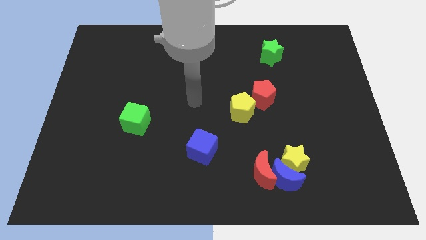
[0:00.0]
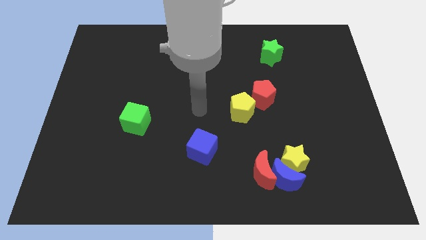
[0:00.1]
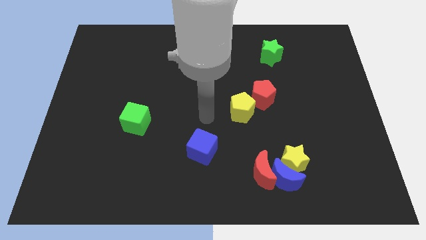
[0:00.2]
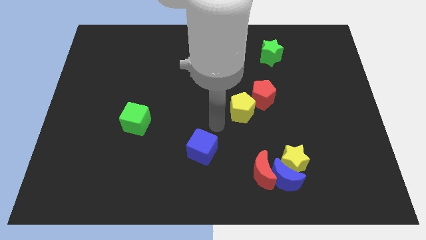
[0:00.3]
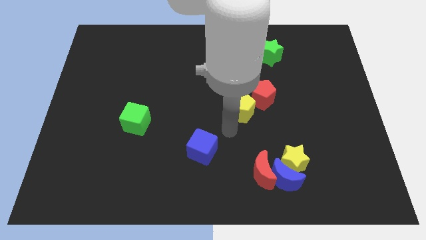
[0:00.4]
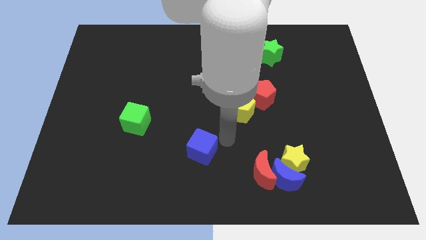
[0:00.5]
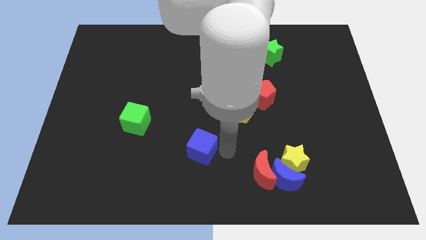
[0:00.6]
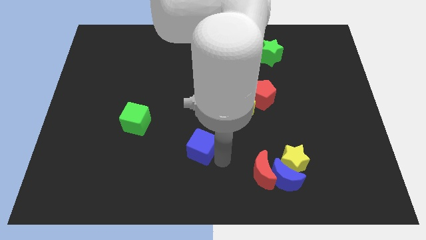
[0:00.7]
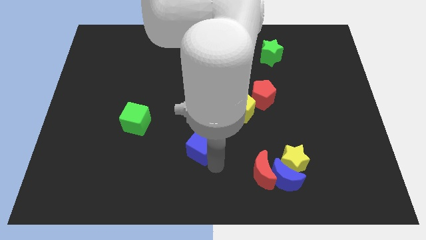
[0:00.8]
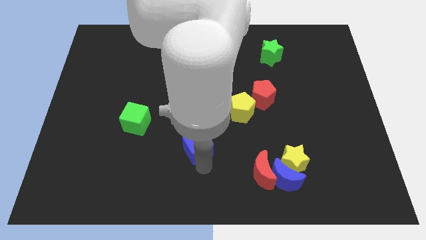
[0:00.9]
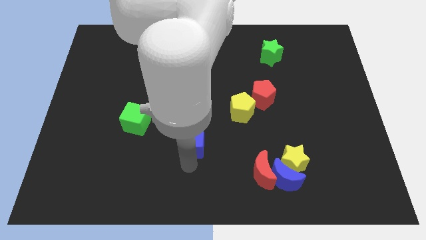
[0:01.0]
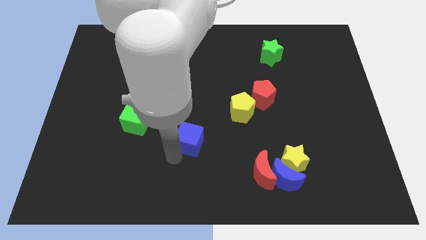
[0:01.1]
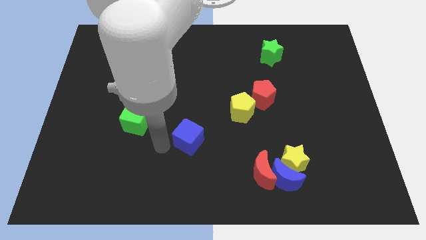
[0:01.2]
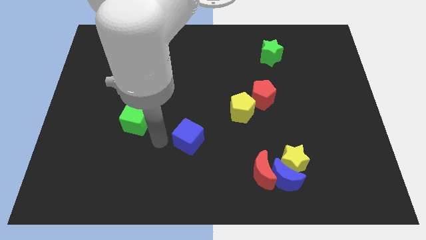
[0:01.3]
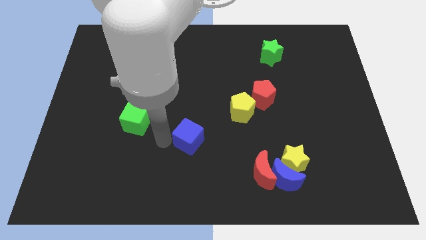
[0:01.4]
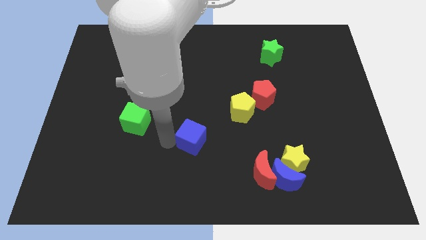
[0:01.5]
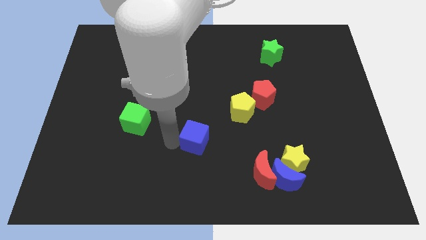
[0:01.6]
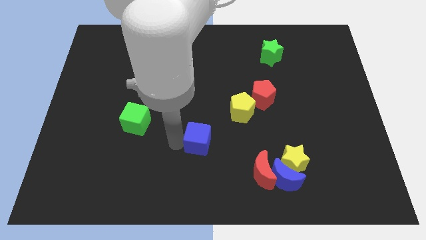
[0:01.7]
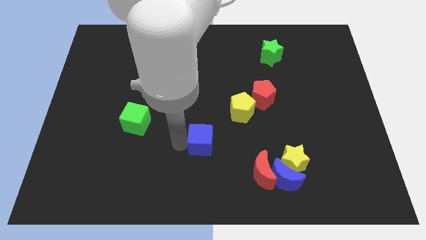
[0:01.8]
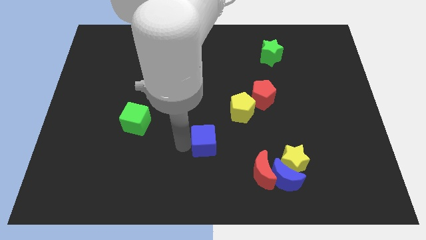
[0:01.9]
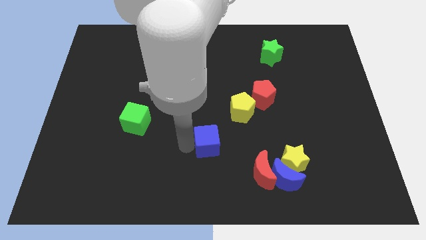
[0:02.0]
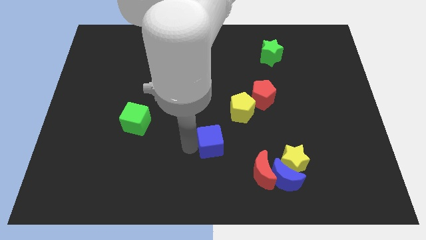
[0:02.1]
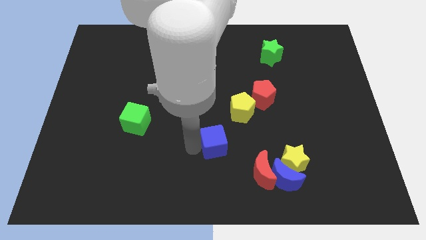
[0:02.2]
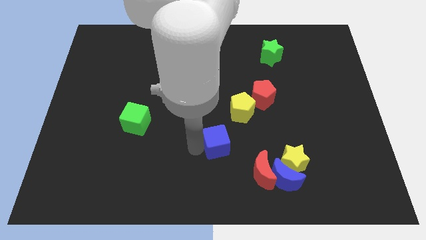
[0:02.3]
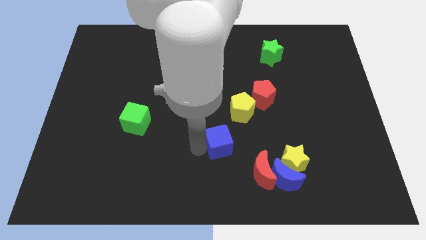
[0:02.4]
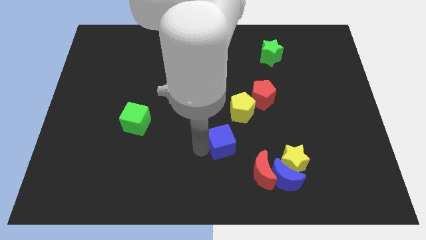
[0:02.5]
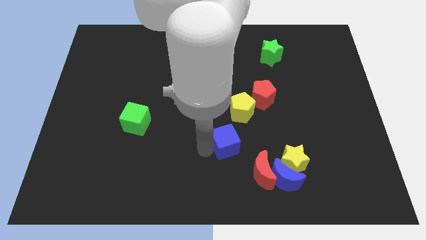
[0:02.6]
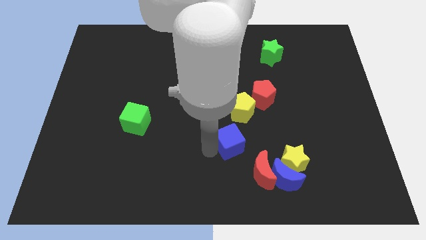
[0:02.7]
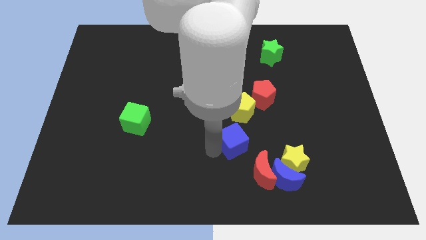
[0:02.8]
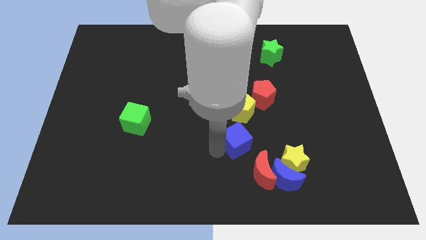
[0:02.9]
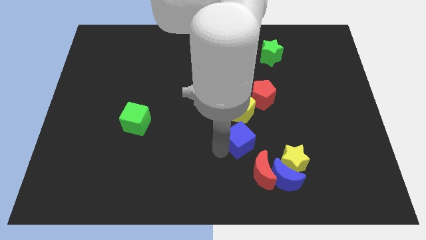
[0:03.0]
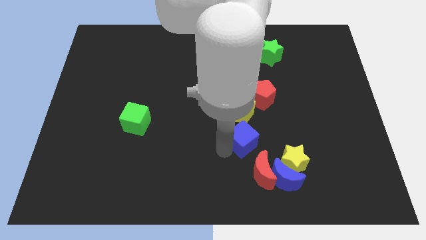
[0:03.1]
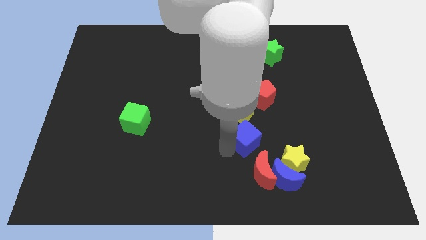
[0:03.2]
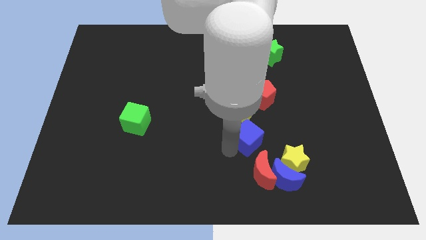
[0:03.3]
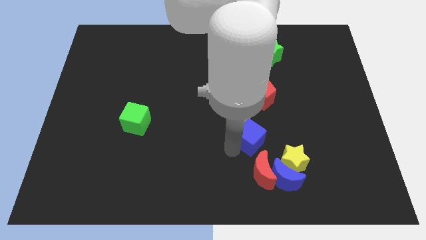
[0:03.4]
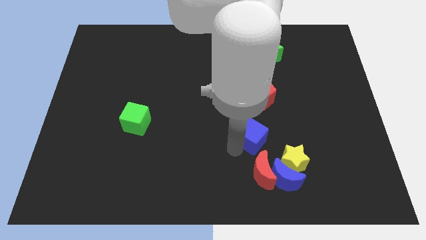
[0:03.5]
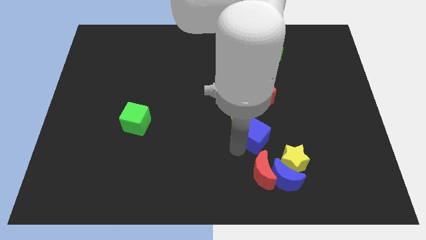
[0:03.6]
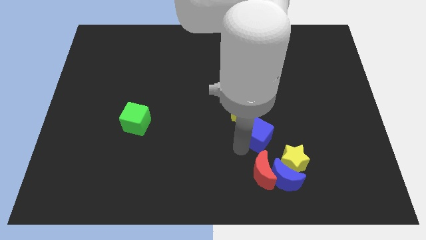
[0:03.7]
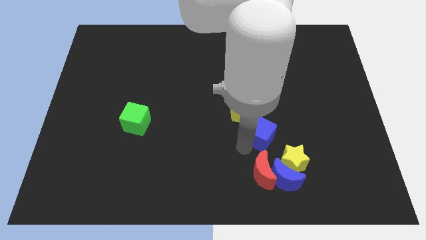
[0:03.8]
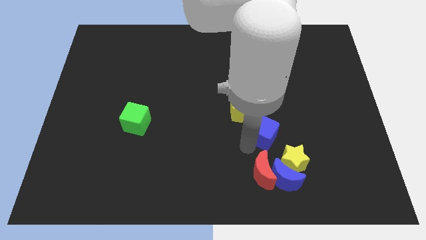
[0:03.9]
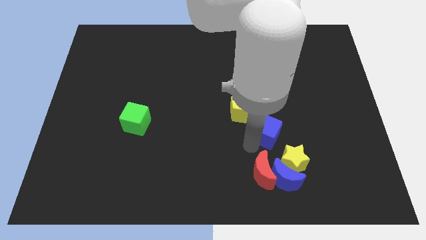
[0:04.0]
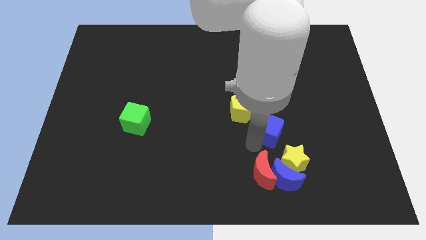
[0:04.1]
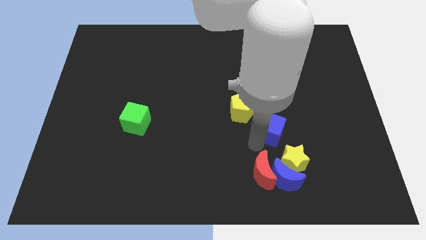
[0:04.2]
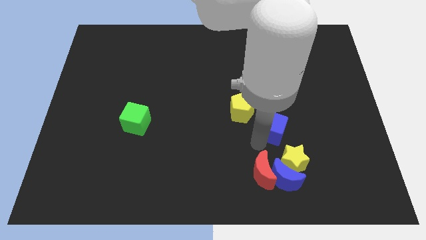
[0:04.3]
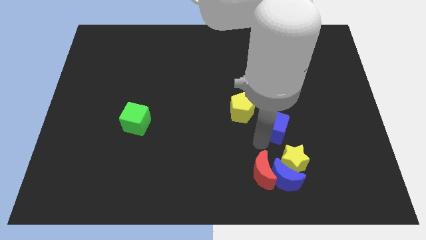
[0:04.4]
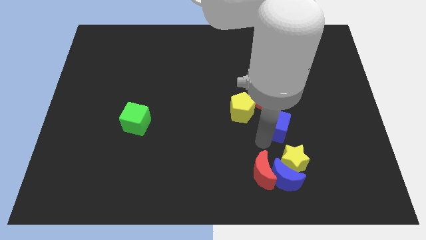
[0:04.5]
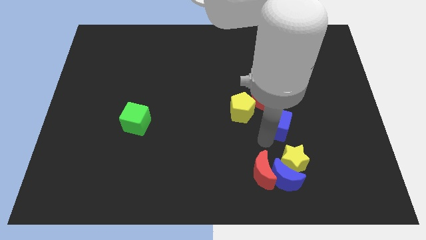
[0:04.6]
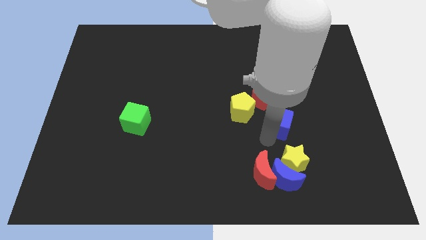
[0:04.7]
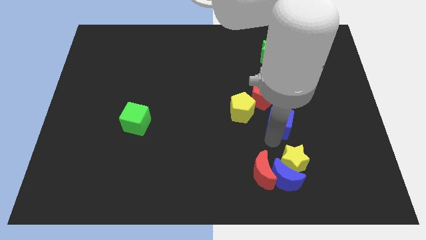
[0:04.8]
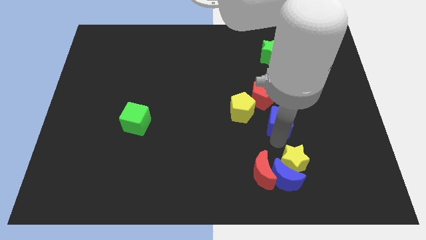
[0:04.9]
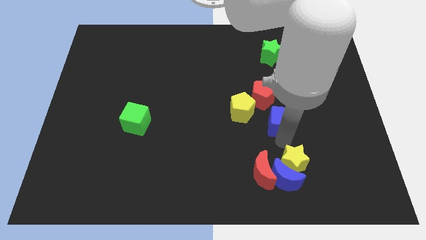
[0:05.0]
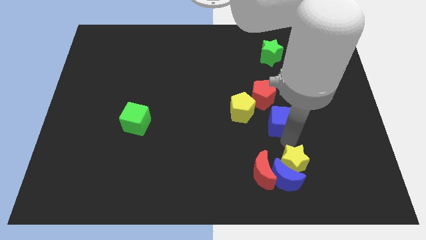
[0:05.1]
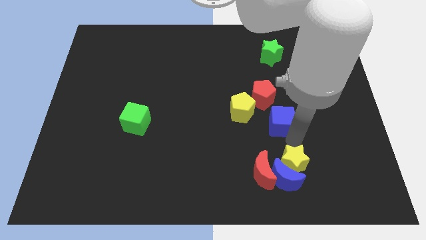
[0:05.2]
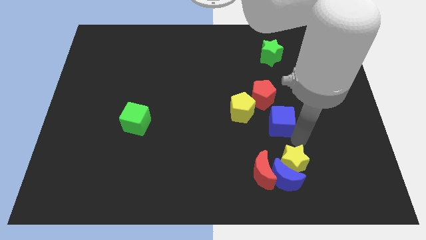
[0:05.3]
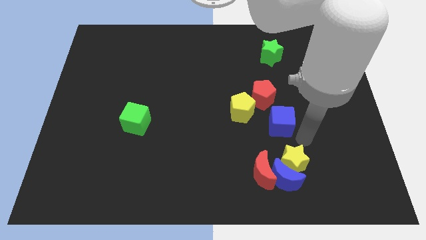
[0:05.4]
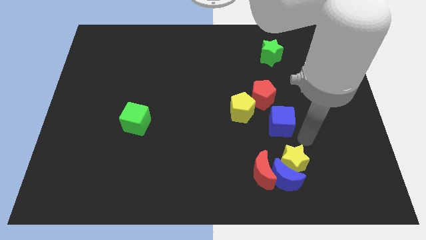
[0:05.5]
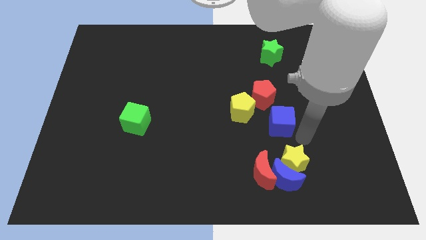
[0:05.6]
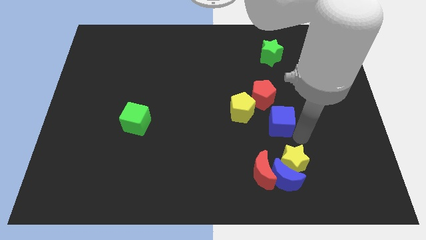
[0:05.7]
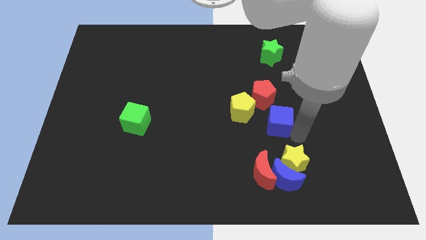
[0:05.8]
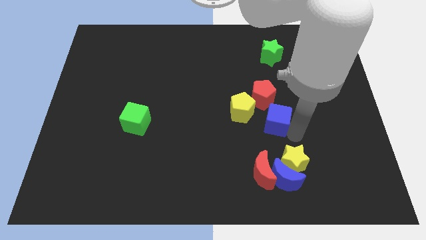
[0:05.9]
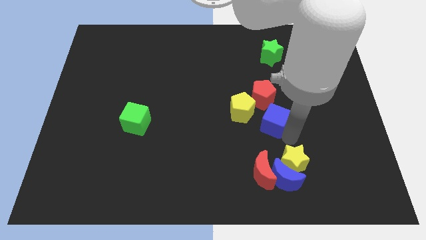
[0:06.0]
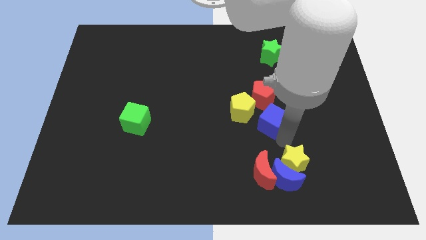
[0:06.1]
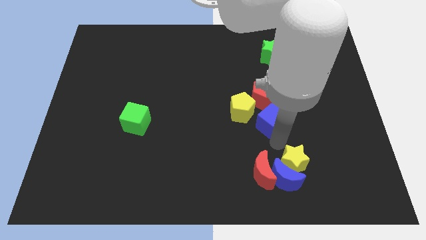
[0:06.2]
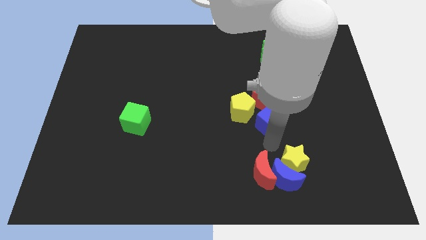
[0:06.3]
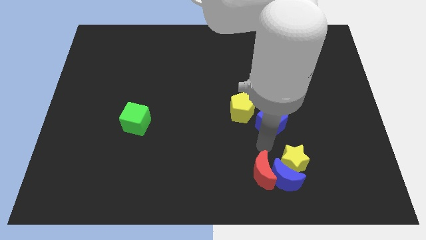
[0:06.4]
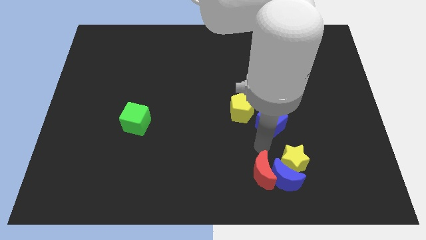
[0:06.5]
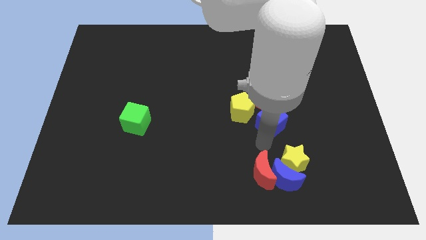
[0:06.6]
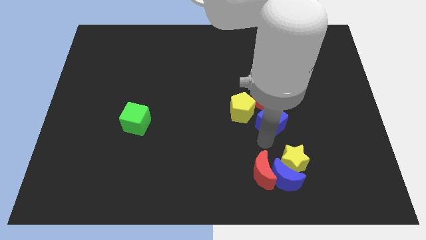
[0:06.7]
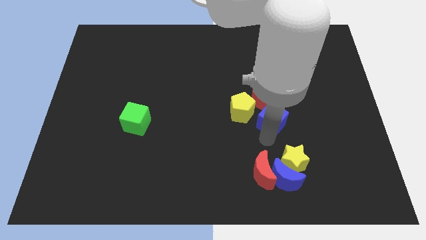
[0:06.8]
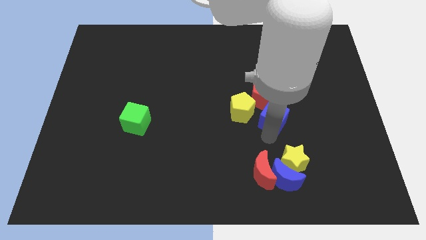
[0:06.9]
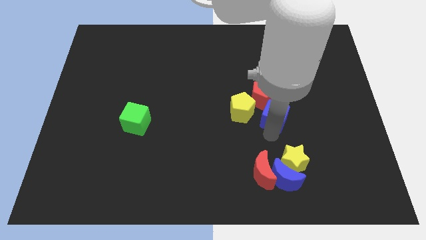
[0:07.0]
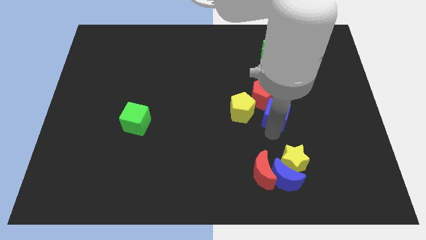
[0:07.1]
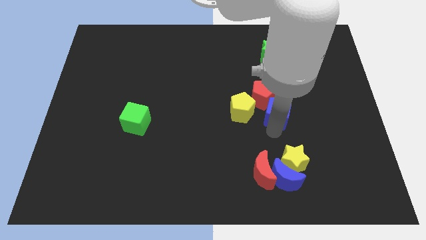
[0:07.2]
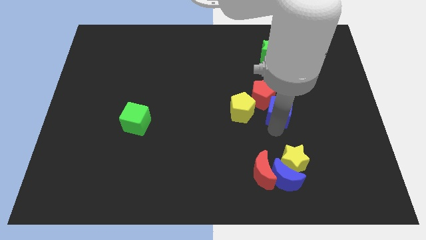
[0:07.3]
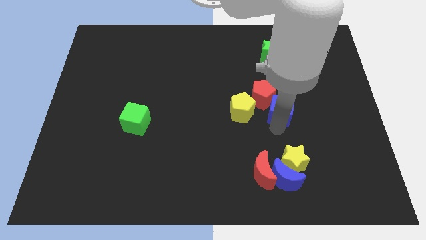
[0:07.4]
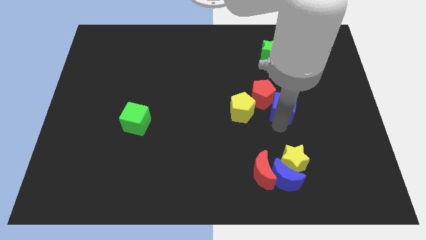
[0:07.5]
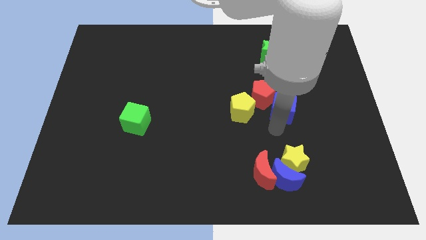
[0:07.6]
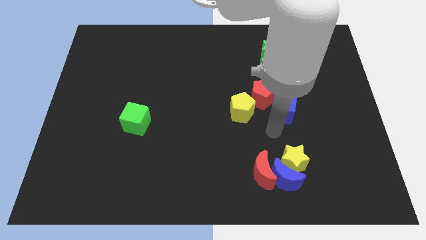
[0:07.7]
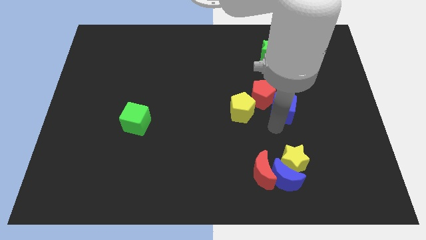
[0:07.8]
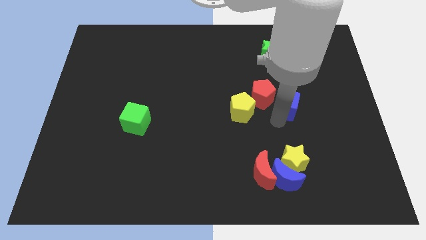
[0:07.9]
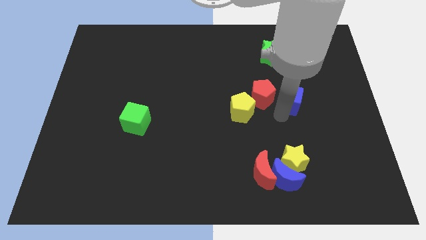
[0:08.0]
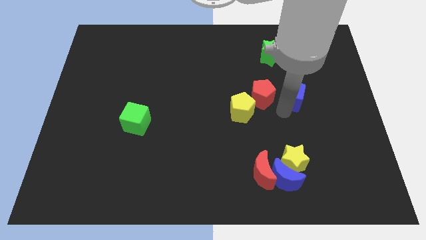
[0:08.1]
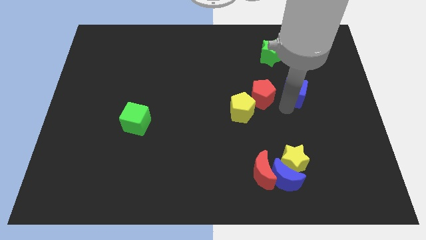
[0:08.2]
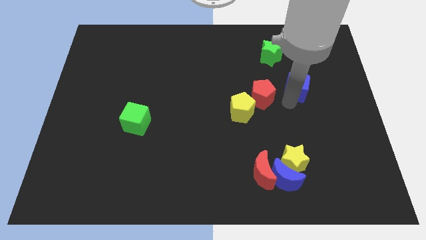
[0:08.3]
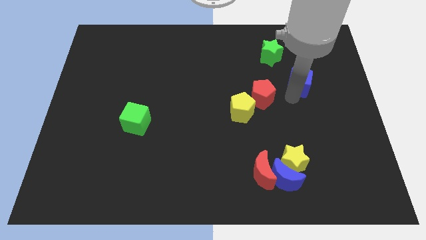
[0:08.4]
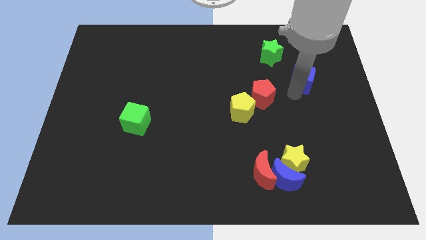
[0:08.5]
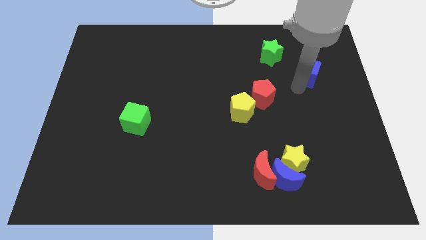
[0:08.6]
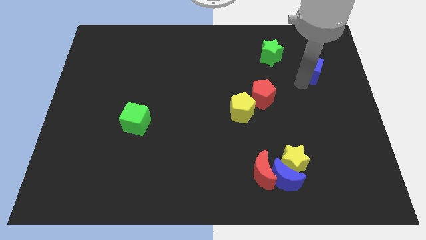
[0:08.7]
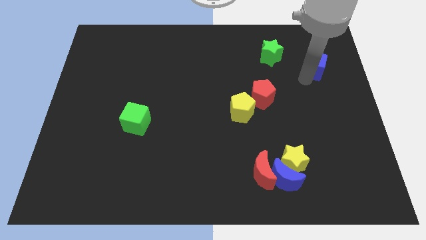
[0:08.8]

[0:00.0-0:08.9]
slide the blue cube just right of the green star
